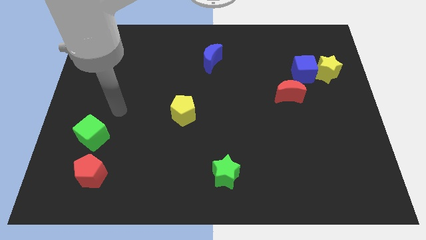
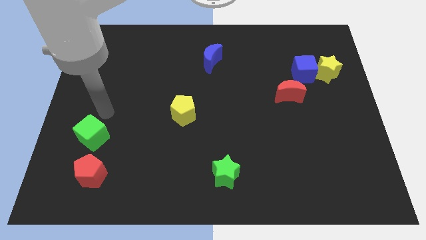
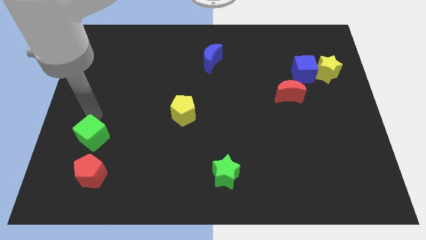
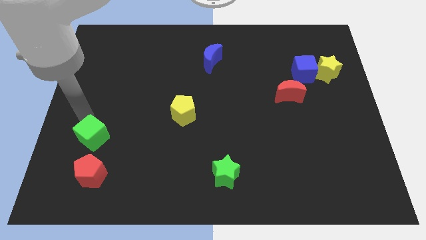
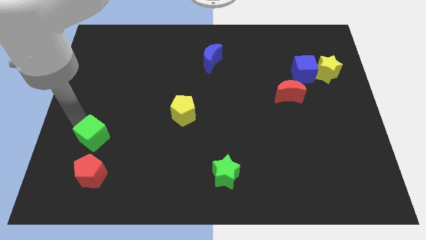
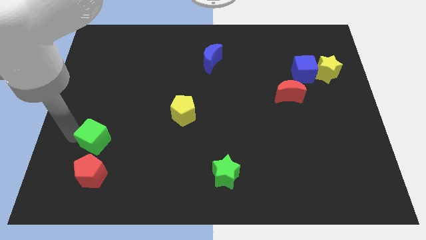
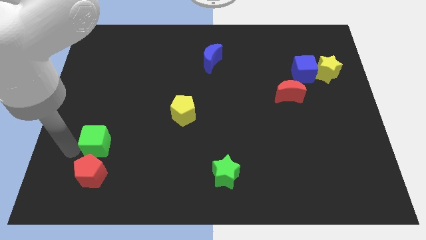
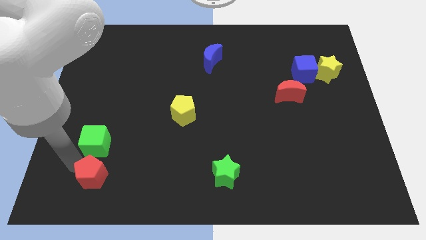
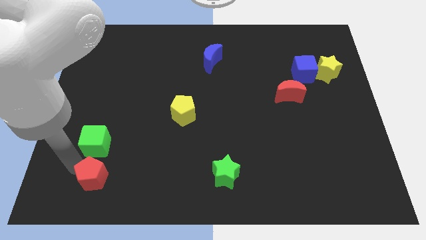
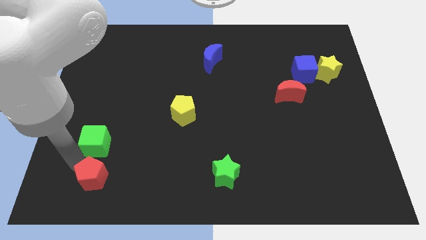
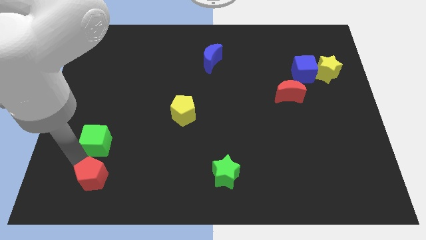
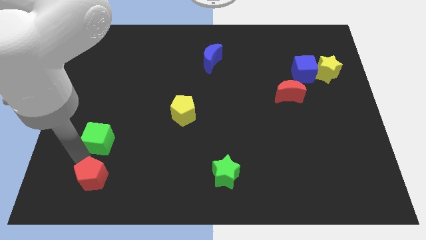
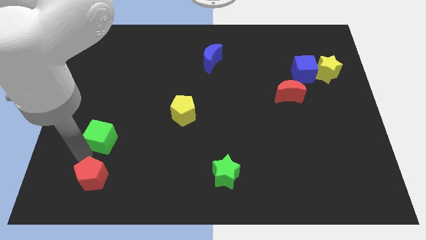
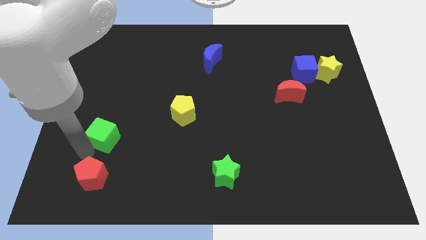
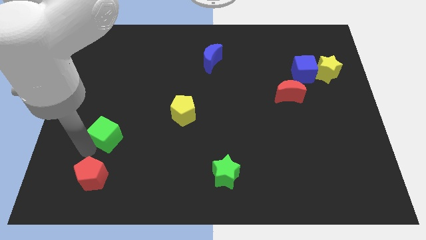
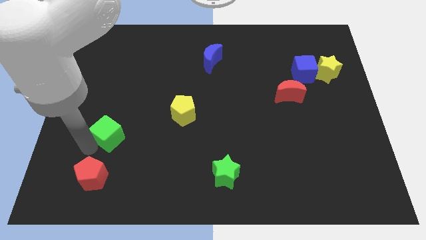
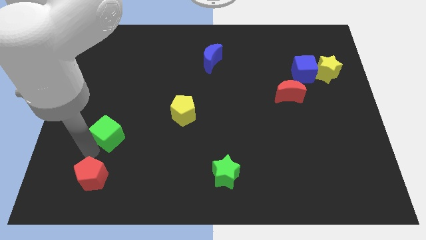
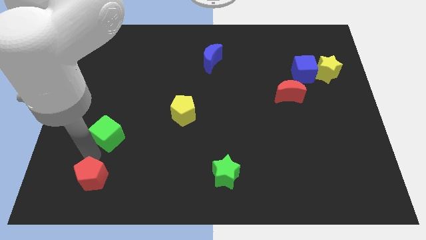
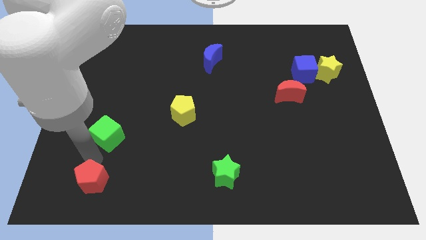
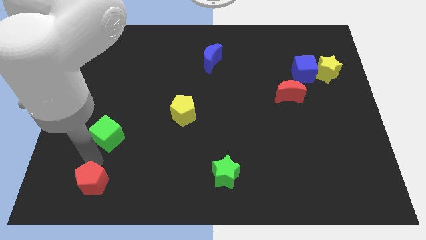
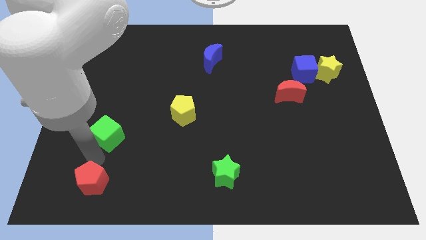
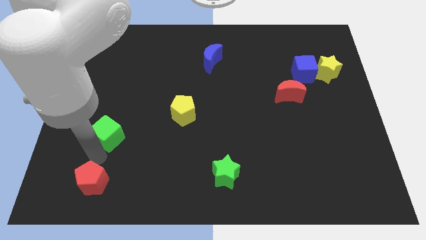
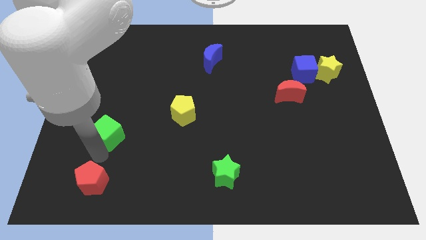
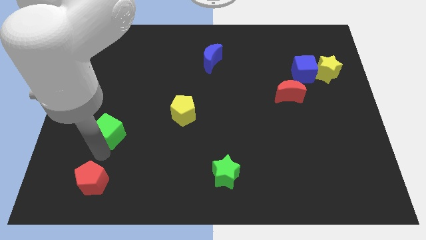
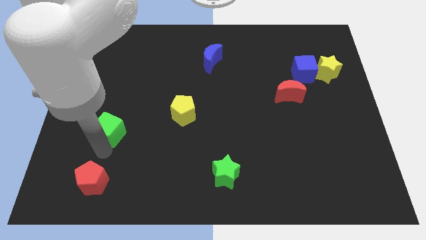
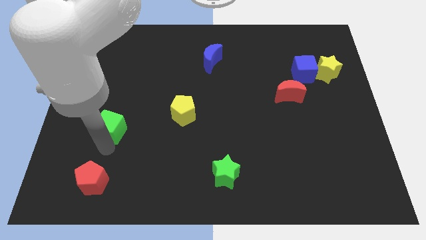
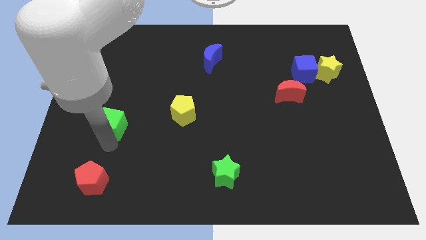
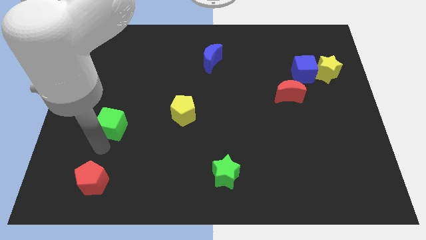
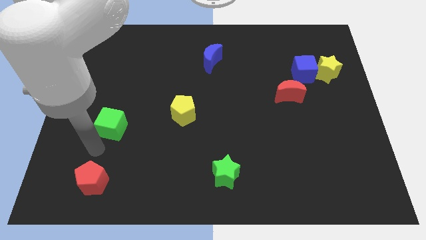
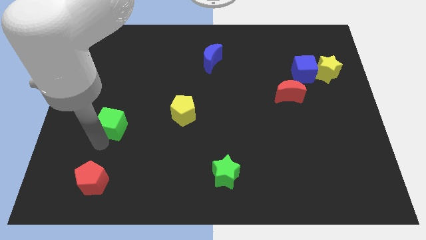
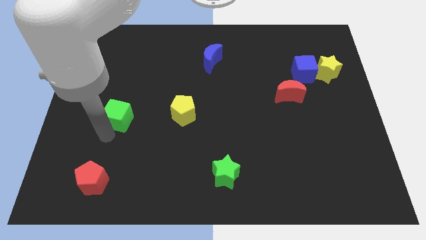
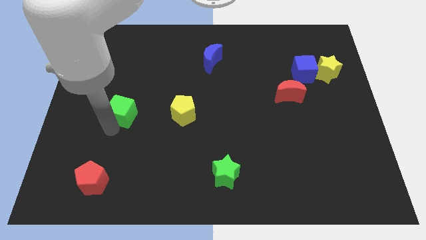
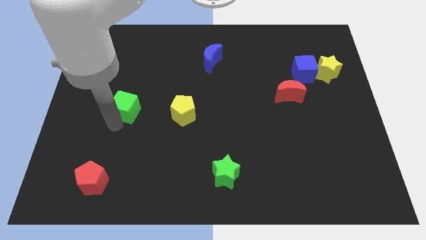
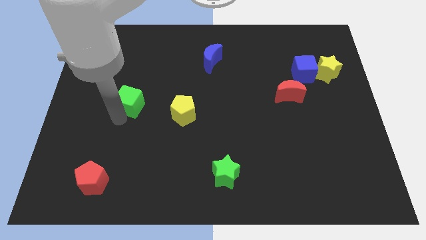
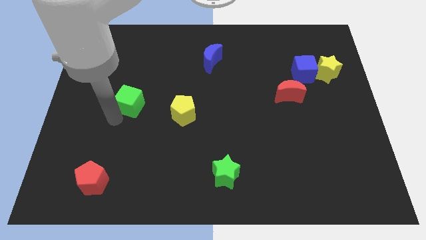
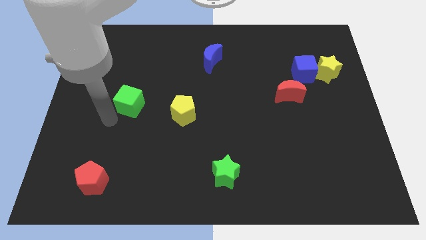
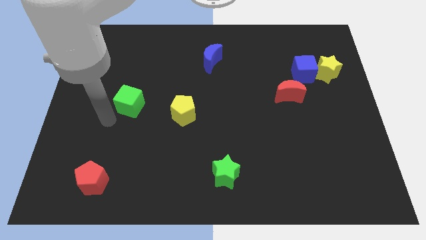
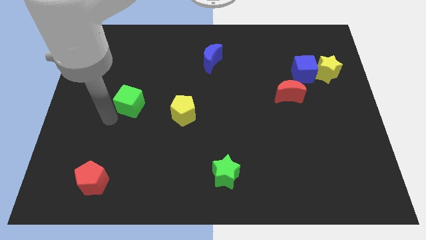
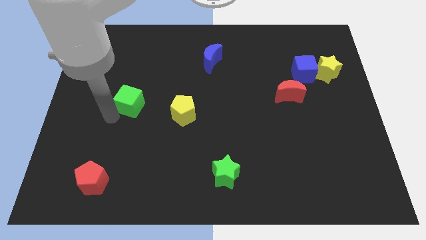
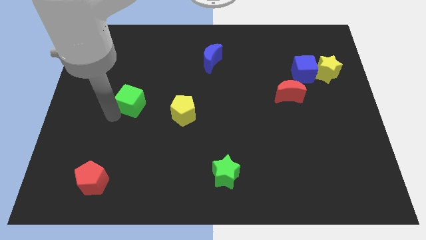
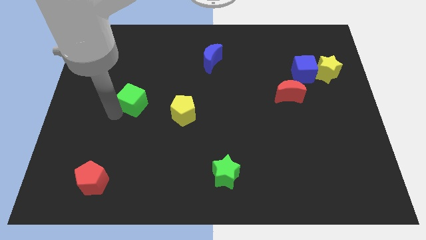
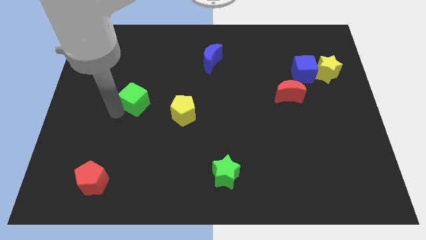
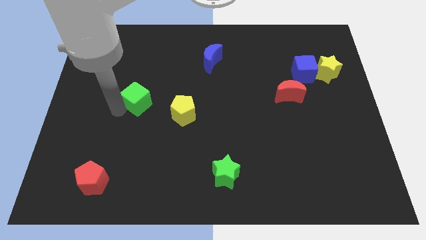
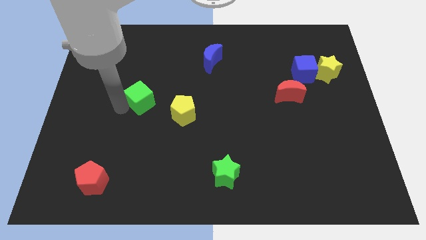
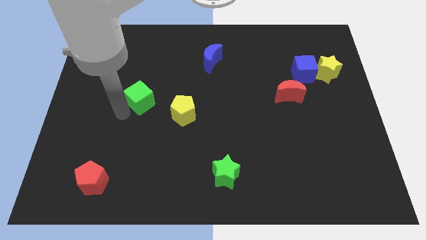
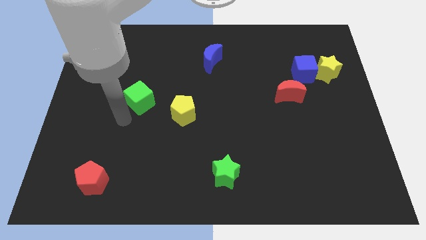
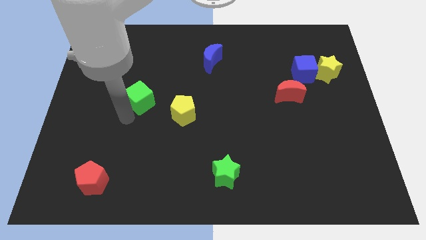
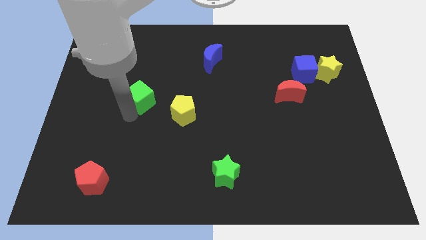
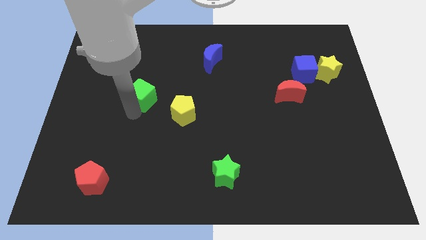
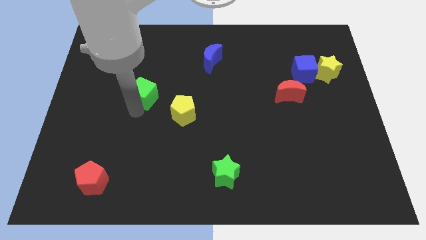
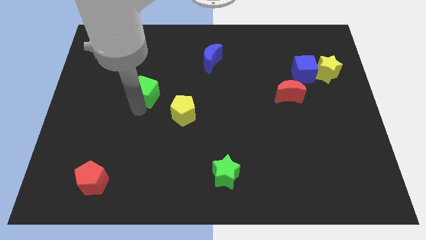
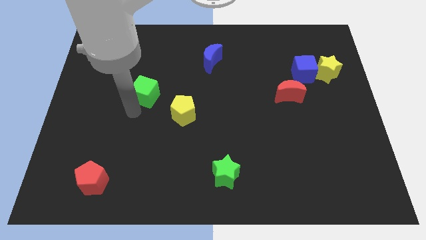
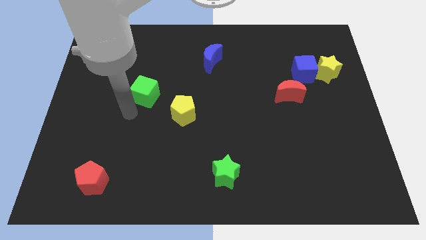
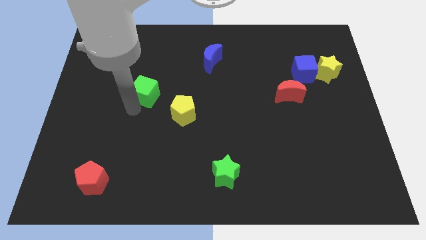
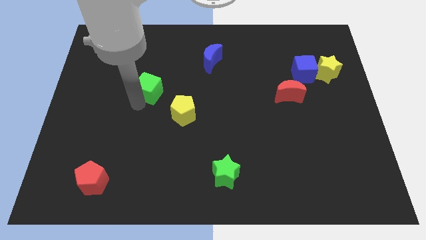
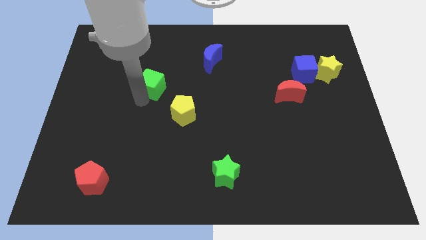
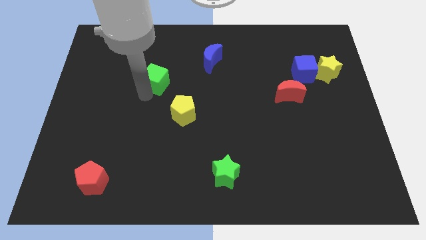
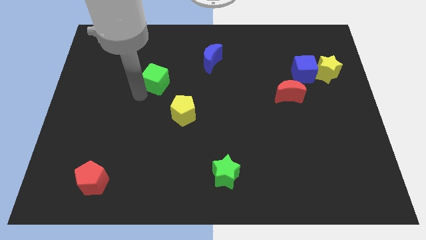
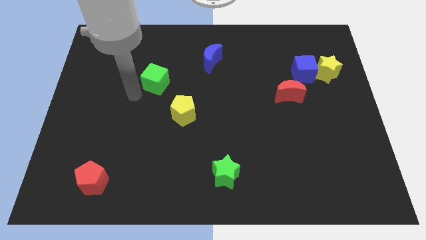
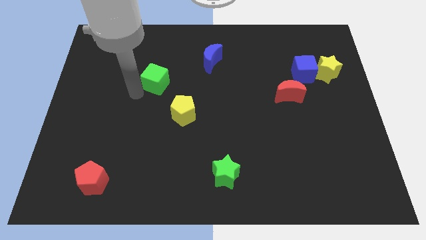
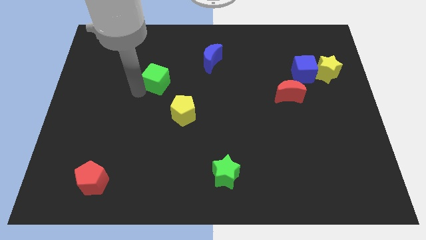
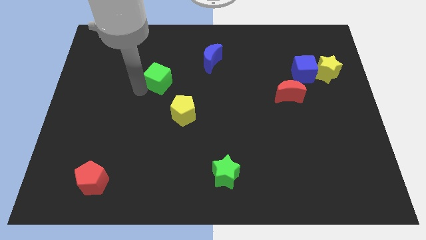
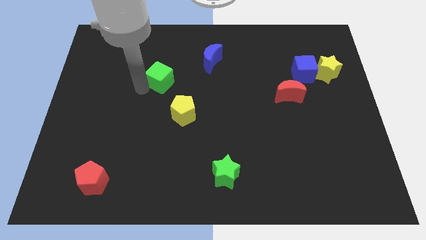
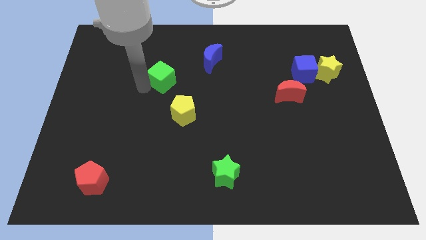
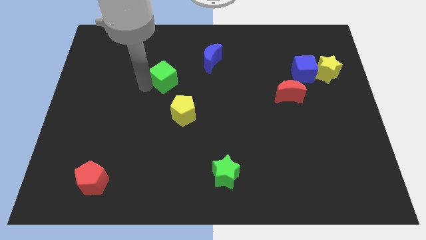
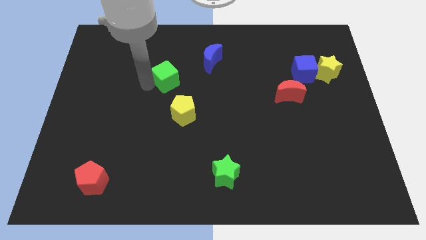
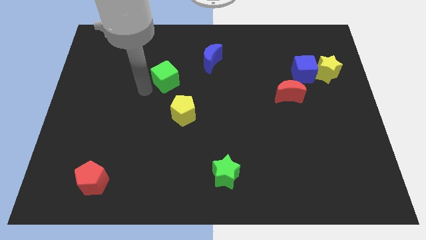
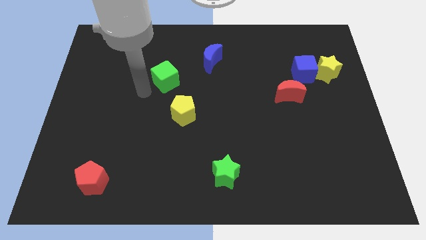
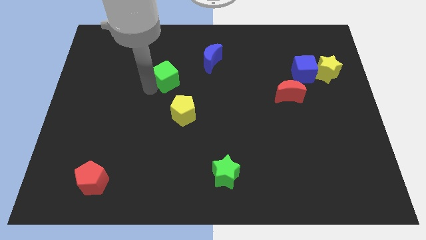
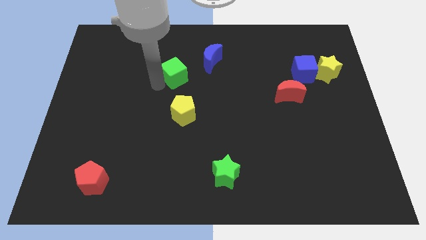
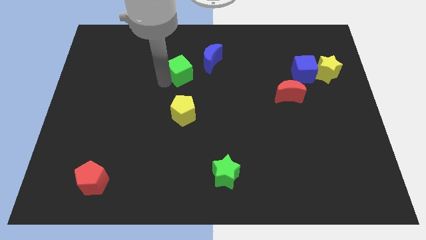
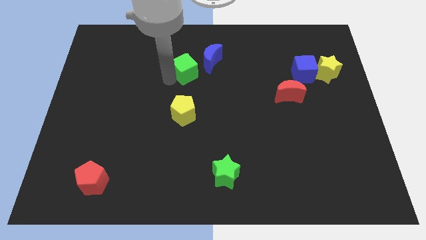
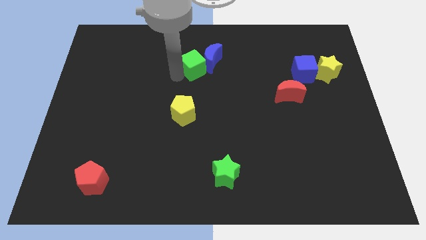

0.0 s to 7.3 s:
slide the green cube next to the blue moon
